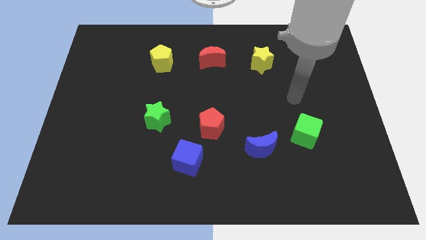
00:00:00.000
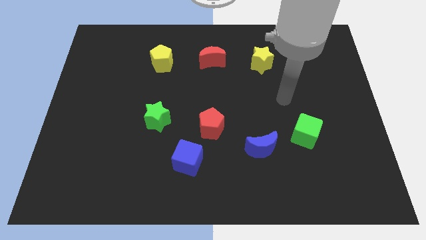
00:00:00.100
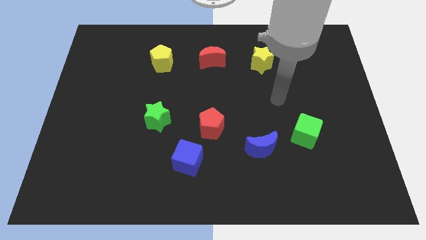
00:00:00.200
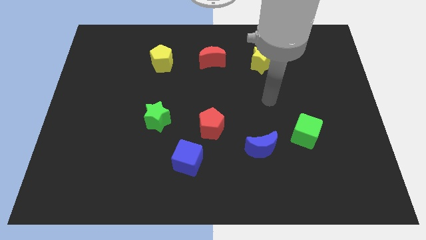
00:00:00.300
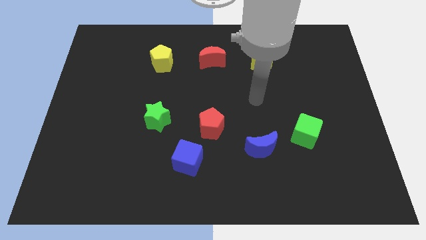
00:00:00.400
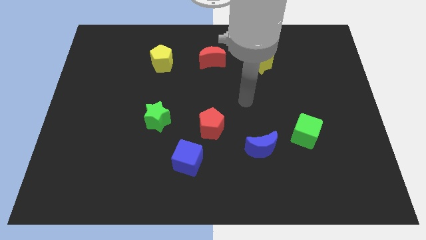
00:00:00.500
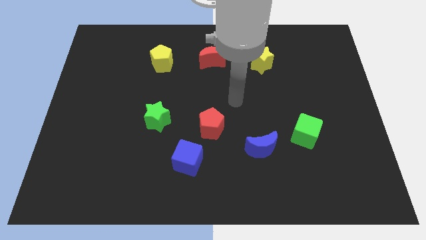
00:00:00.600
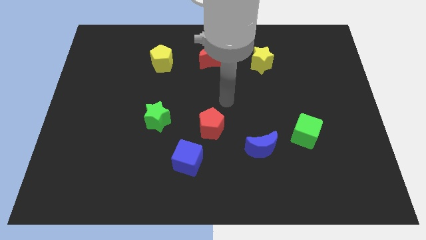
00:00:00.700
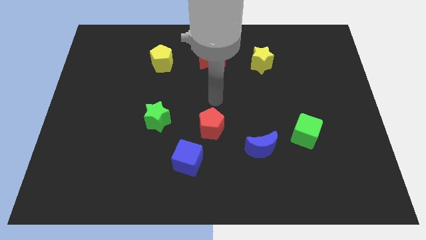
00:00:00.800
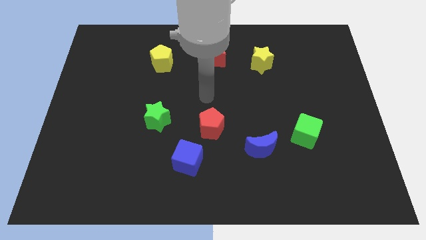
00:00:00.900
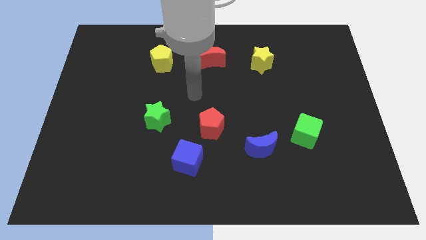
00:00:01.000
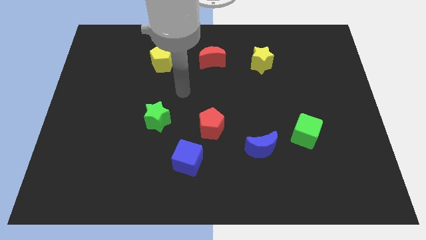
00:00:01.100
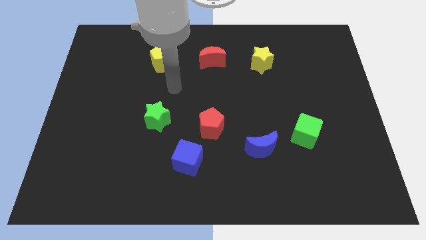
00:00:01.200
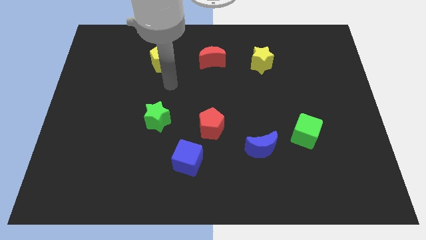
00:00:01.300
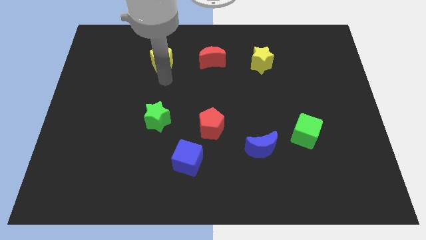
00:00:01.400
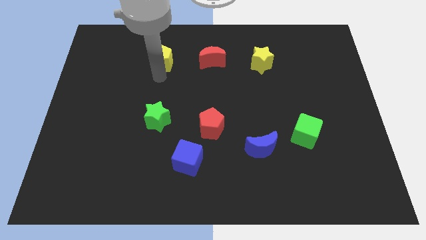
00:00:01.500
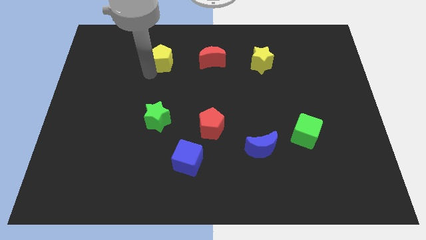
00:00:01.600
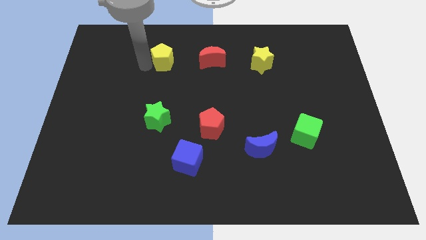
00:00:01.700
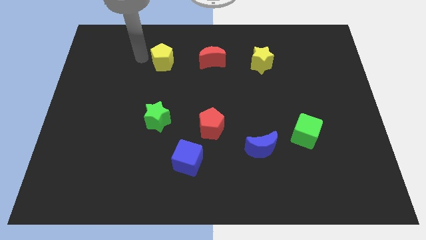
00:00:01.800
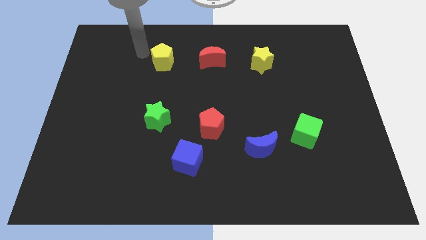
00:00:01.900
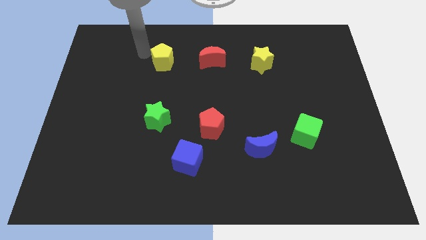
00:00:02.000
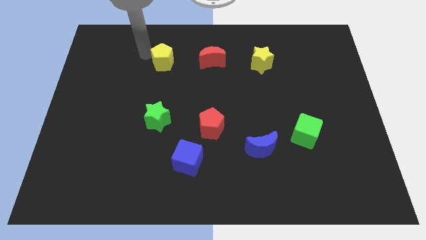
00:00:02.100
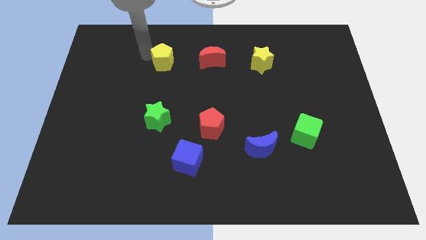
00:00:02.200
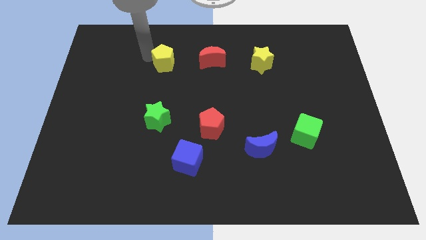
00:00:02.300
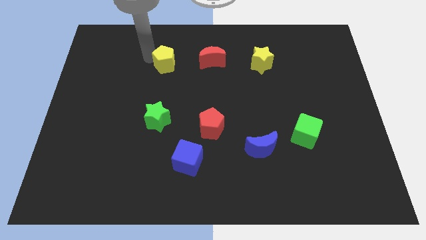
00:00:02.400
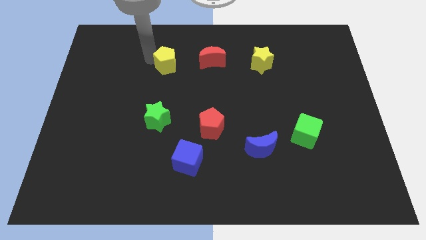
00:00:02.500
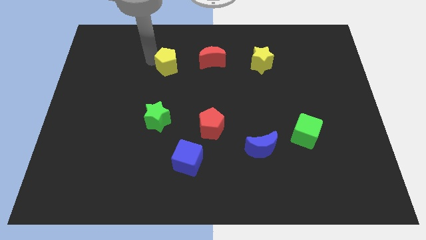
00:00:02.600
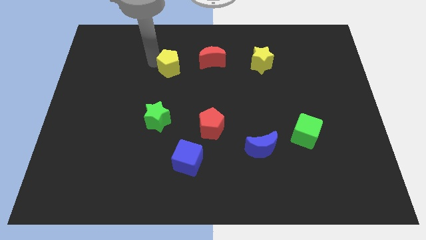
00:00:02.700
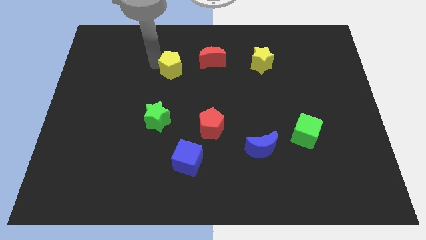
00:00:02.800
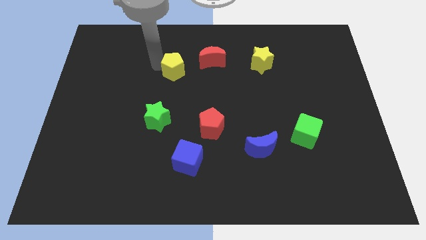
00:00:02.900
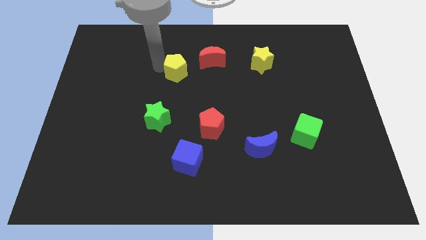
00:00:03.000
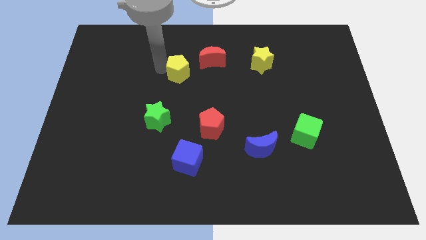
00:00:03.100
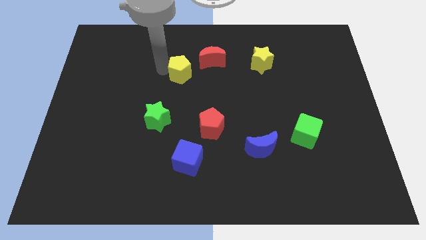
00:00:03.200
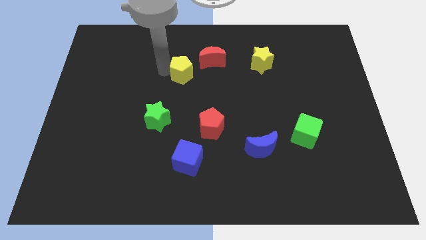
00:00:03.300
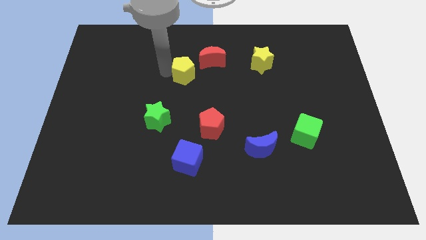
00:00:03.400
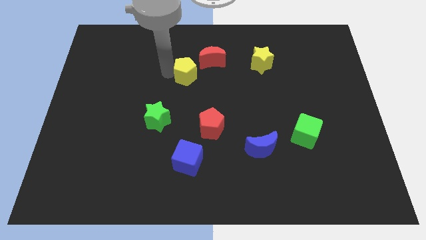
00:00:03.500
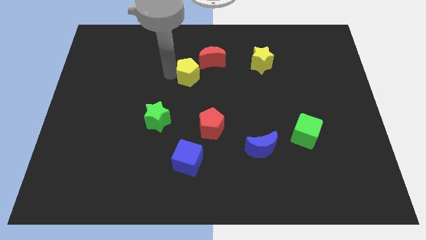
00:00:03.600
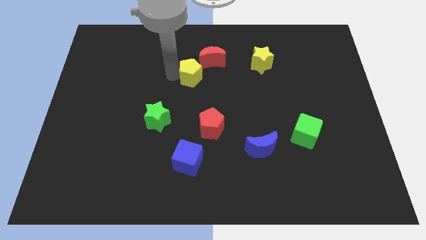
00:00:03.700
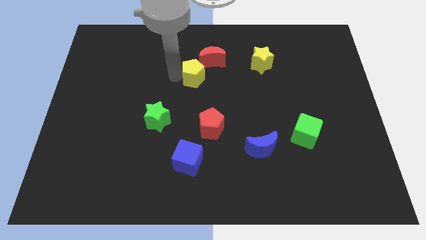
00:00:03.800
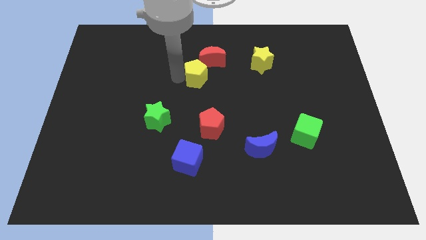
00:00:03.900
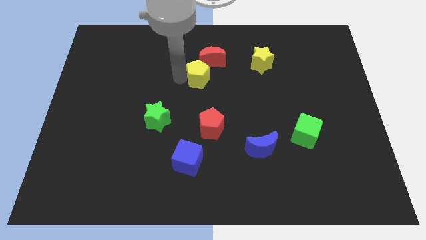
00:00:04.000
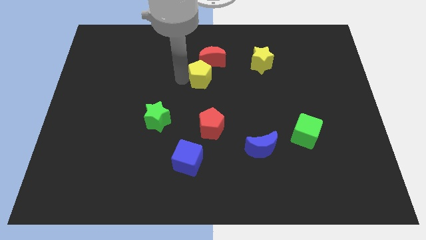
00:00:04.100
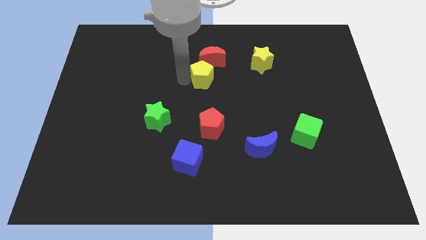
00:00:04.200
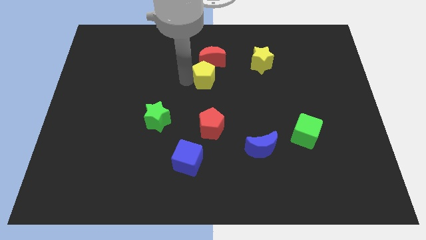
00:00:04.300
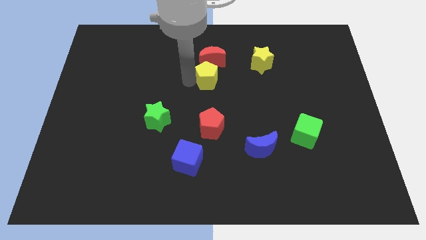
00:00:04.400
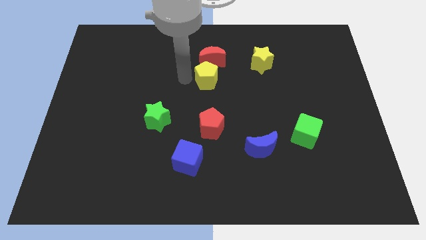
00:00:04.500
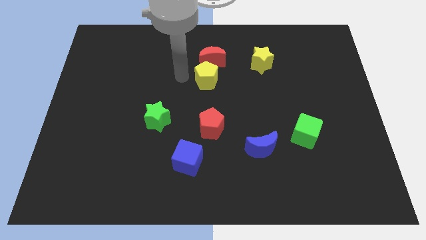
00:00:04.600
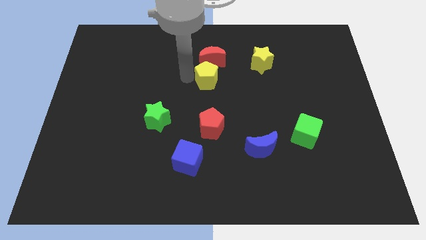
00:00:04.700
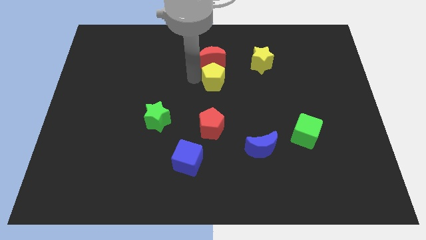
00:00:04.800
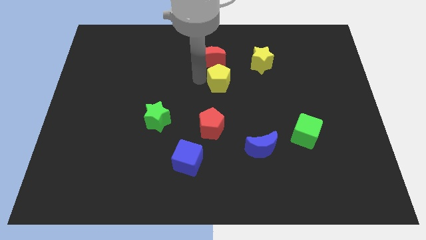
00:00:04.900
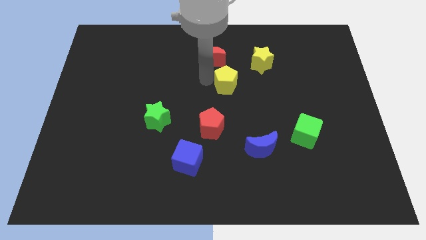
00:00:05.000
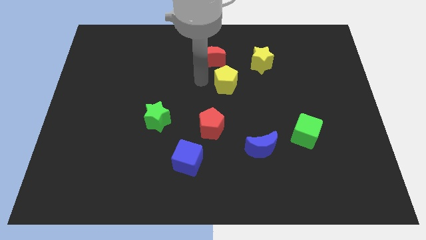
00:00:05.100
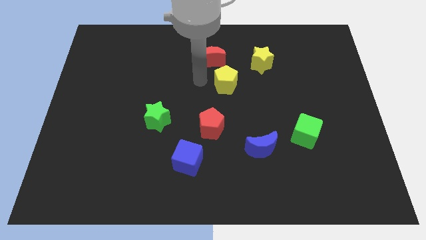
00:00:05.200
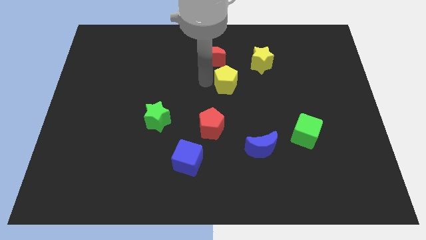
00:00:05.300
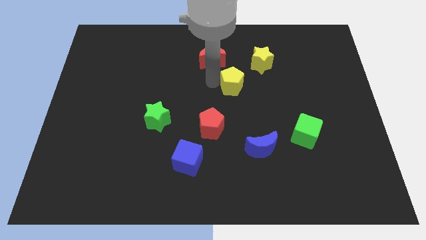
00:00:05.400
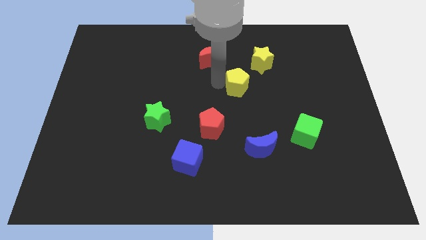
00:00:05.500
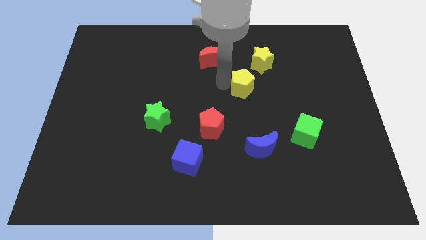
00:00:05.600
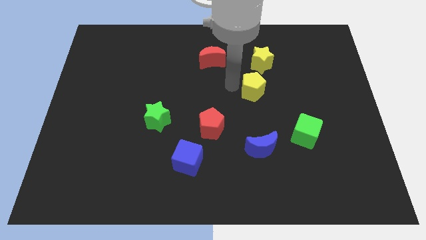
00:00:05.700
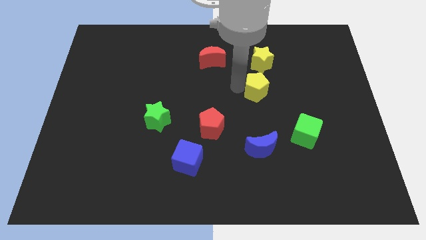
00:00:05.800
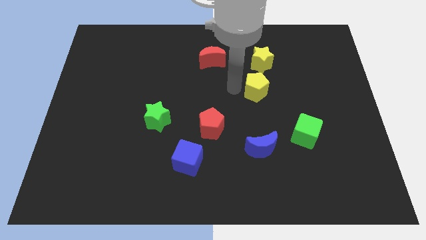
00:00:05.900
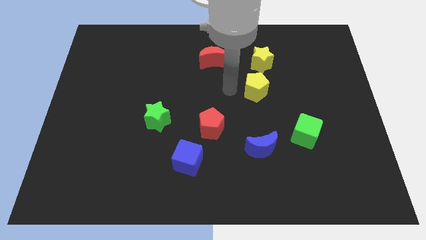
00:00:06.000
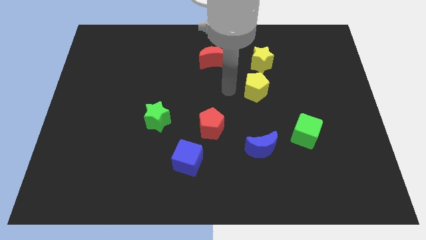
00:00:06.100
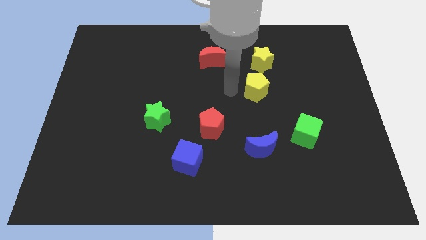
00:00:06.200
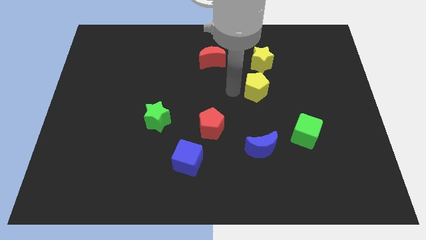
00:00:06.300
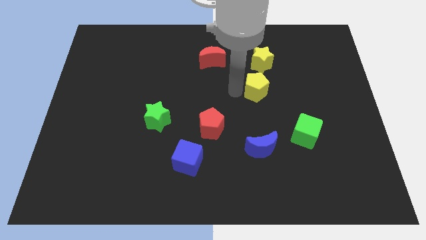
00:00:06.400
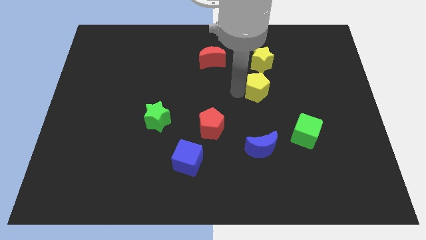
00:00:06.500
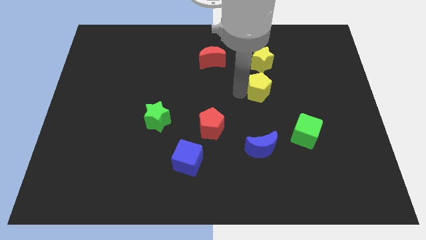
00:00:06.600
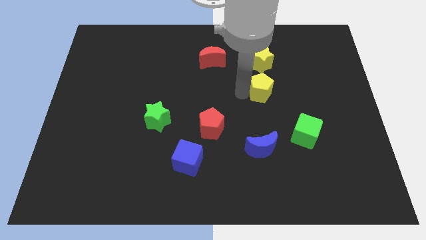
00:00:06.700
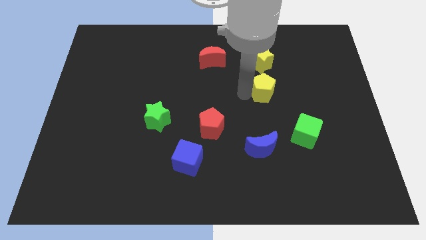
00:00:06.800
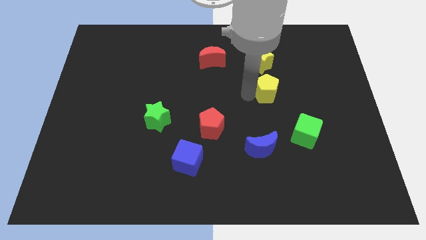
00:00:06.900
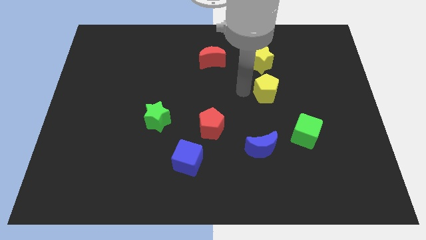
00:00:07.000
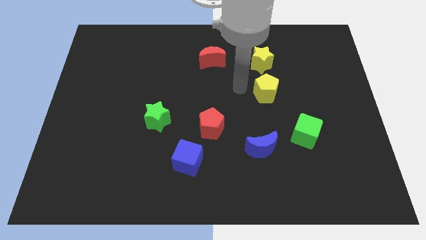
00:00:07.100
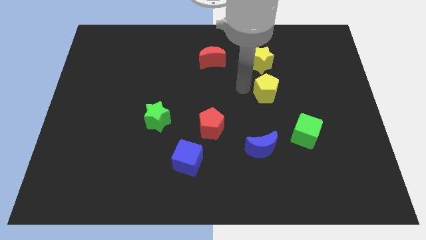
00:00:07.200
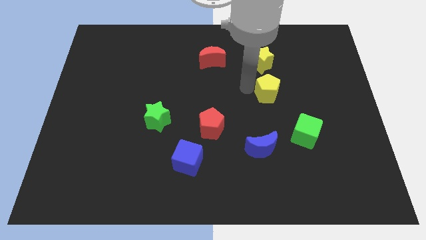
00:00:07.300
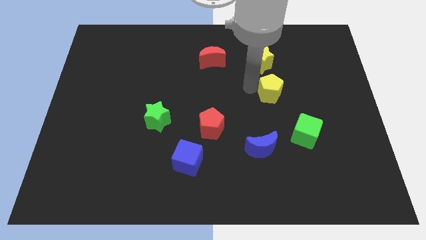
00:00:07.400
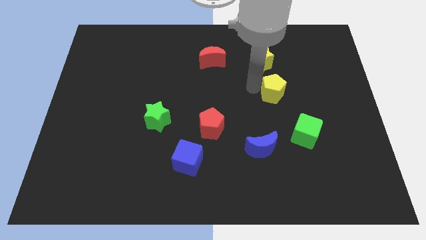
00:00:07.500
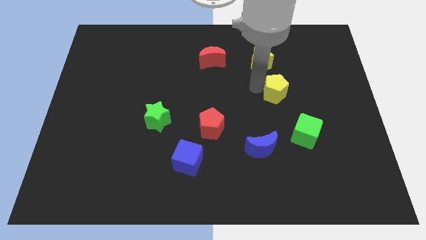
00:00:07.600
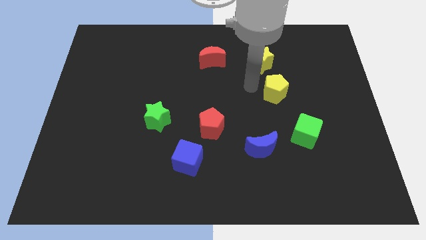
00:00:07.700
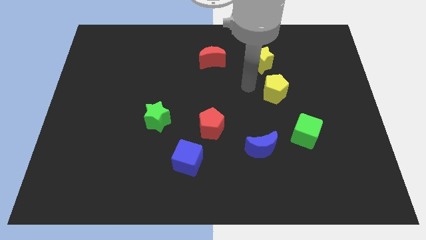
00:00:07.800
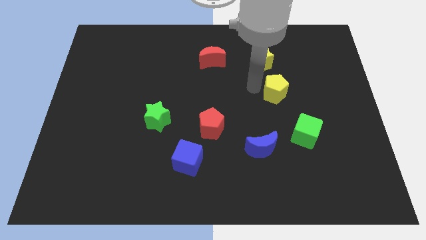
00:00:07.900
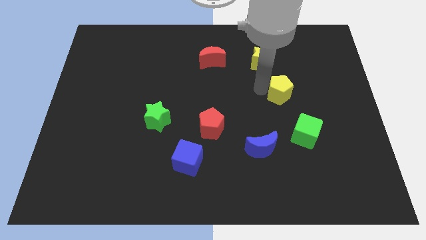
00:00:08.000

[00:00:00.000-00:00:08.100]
push the yellow pentagon to the top of the green cube
